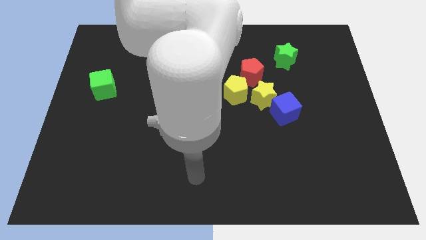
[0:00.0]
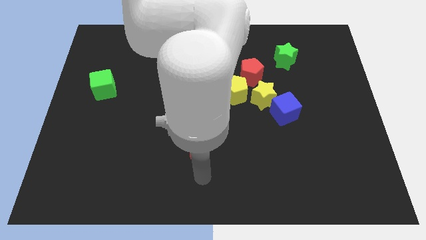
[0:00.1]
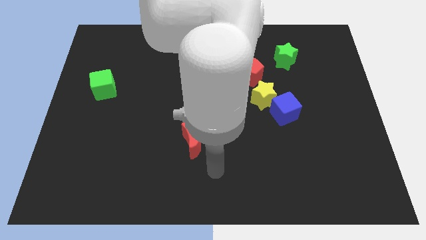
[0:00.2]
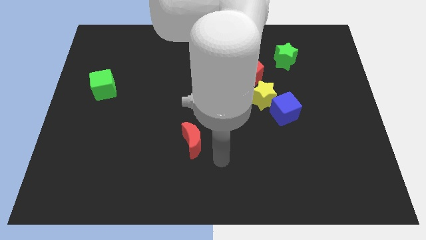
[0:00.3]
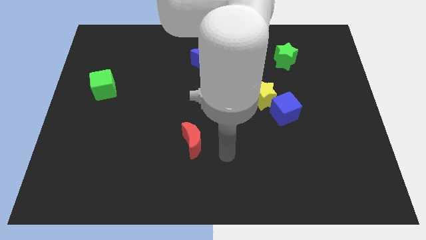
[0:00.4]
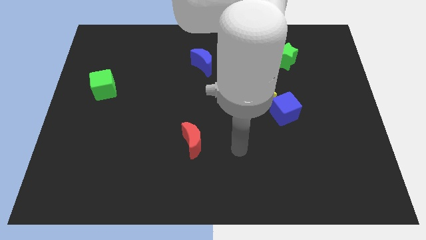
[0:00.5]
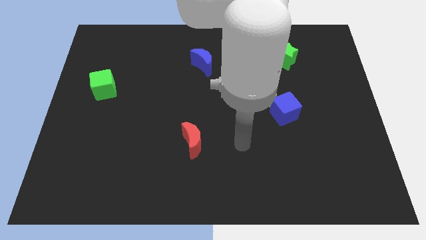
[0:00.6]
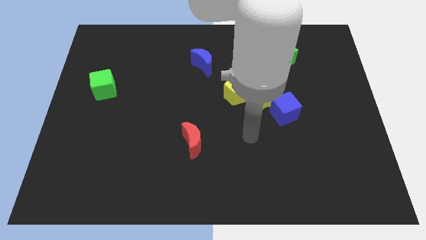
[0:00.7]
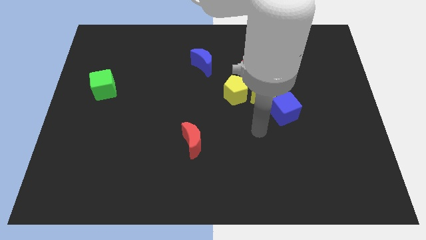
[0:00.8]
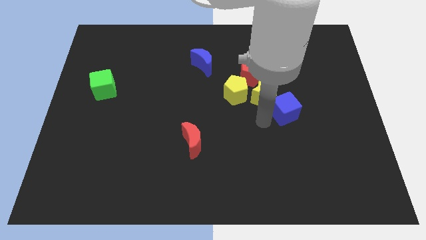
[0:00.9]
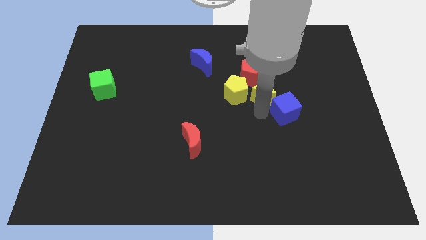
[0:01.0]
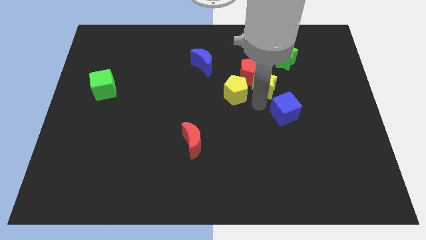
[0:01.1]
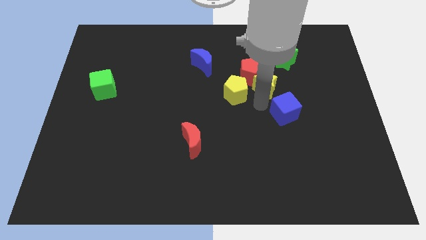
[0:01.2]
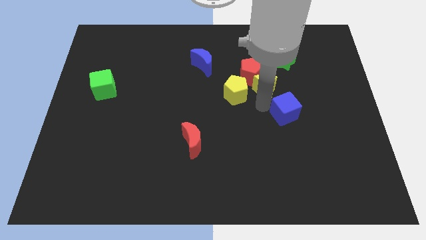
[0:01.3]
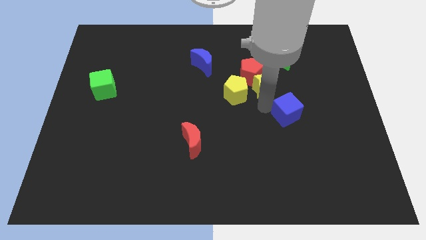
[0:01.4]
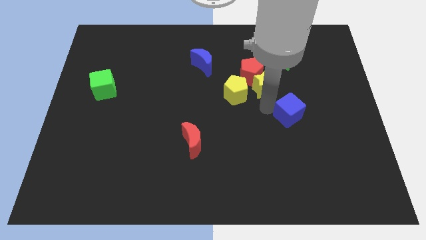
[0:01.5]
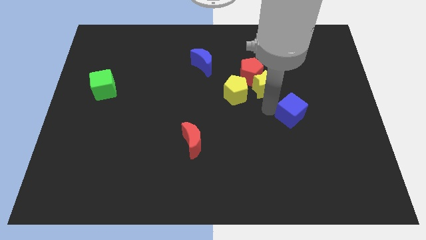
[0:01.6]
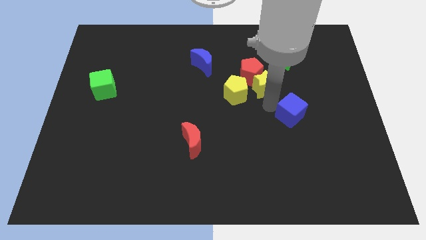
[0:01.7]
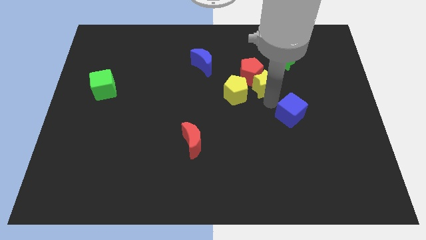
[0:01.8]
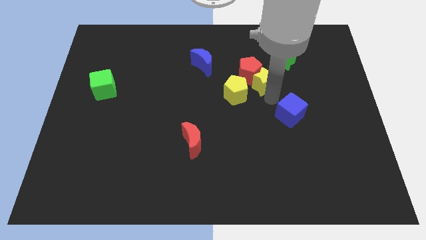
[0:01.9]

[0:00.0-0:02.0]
pull the blue cube apart from the yellow star

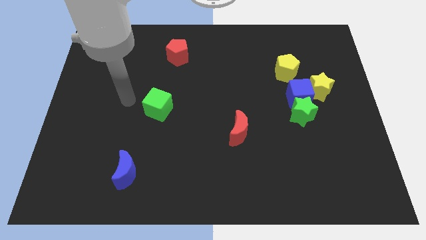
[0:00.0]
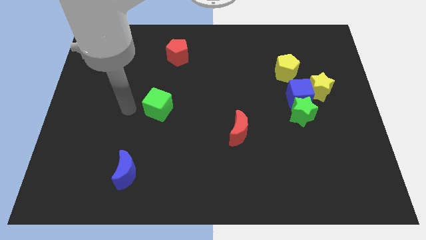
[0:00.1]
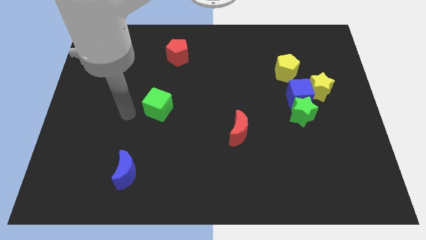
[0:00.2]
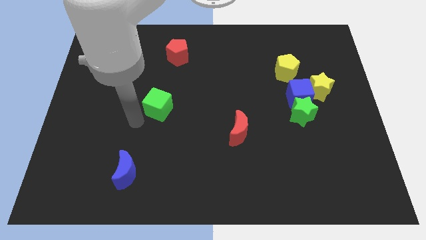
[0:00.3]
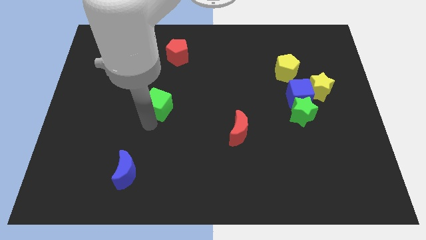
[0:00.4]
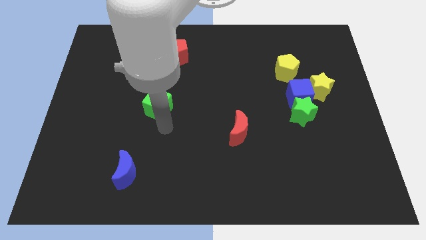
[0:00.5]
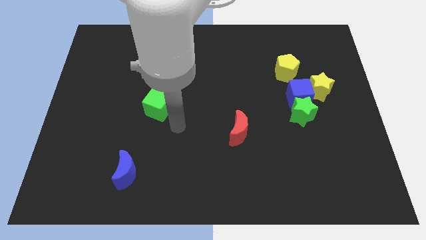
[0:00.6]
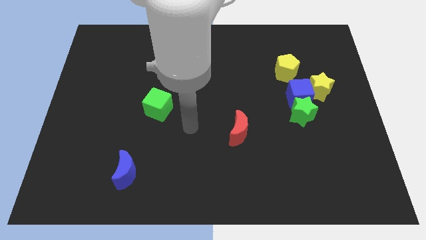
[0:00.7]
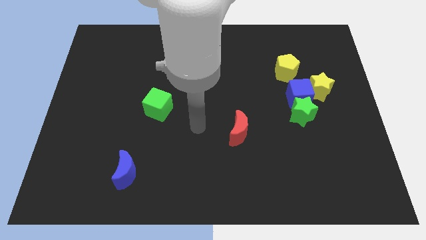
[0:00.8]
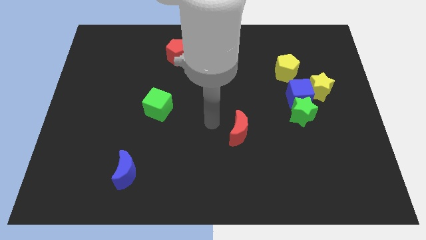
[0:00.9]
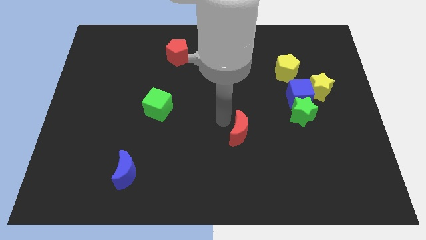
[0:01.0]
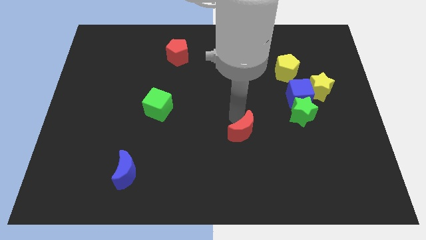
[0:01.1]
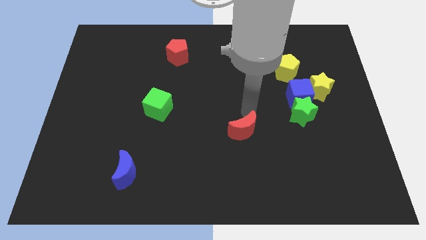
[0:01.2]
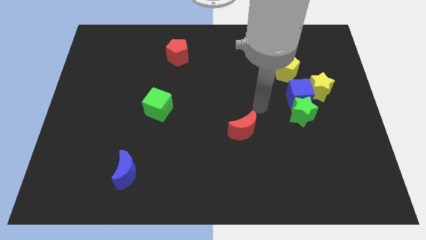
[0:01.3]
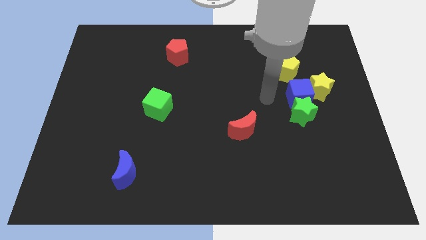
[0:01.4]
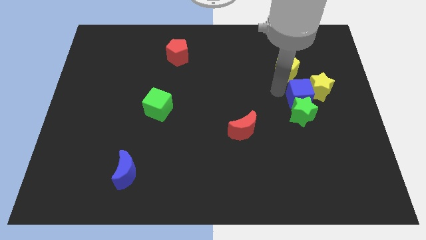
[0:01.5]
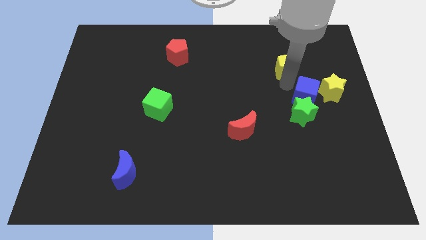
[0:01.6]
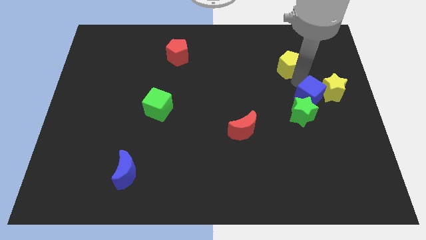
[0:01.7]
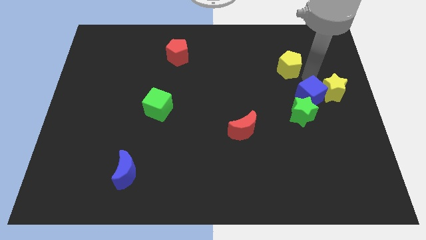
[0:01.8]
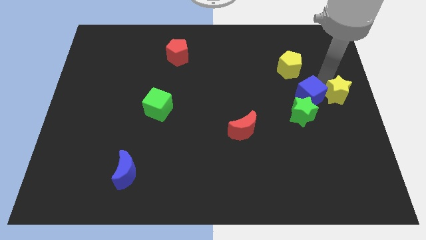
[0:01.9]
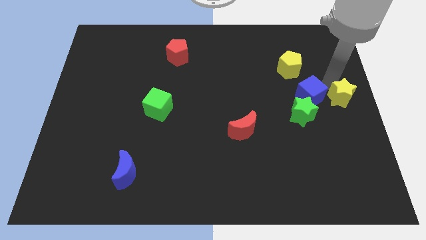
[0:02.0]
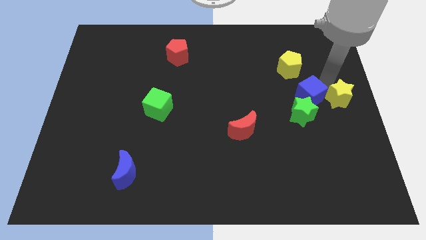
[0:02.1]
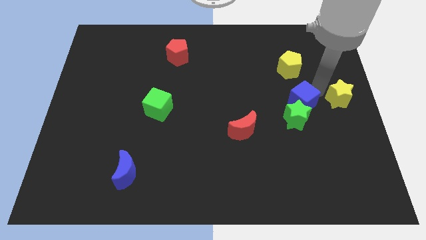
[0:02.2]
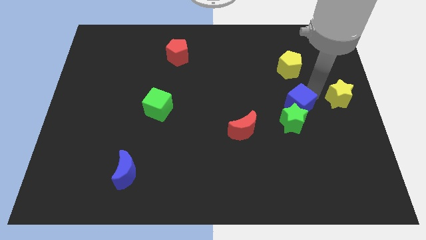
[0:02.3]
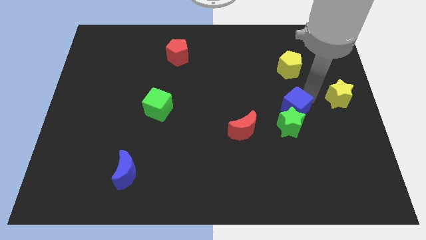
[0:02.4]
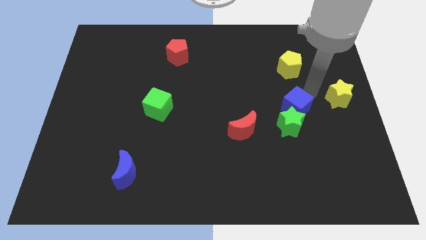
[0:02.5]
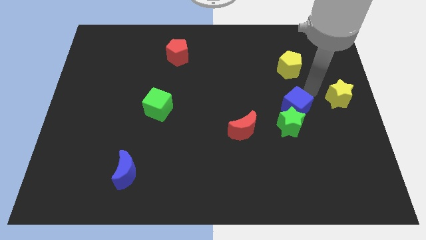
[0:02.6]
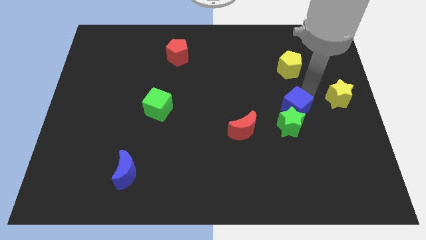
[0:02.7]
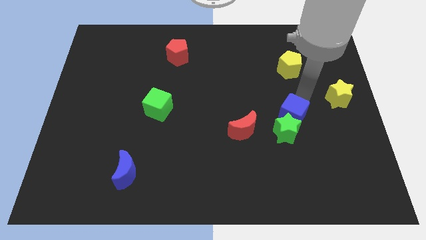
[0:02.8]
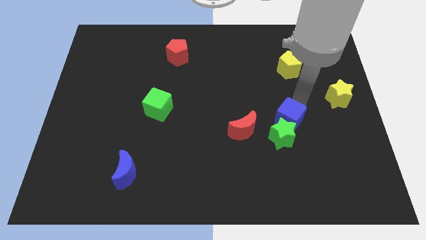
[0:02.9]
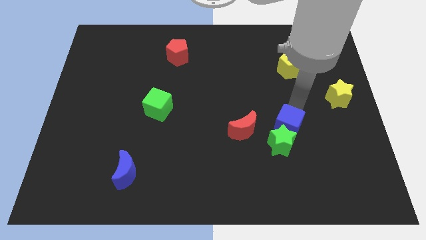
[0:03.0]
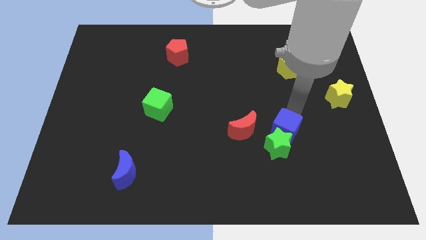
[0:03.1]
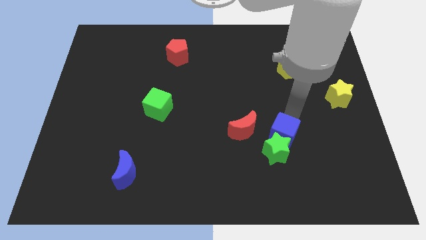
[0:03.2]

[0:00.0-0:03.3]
move the blue cube away from the green star, yellow star, and yellow pentagon

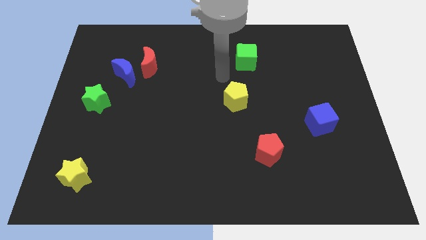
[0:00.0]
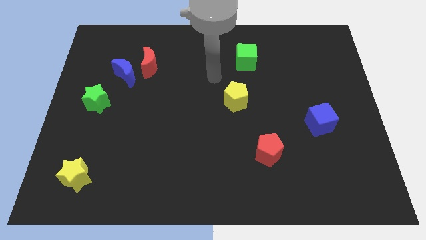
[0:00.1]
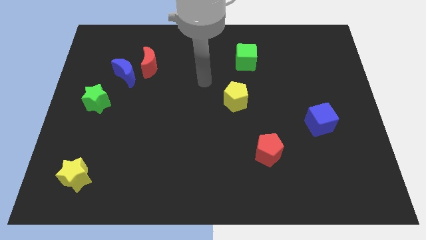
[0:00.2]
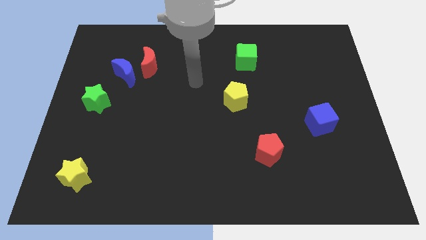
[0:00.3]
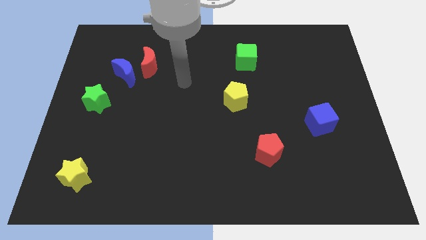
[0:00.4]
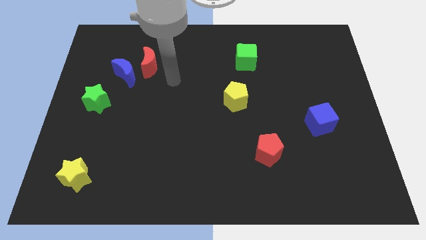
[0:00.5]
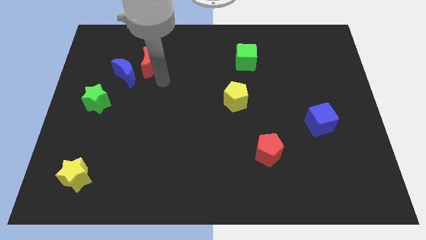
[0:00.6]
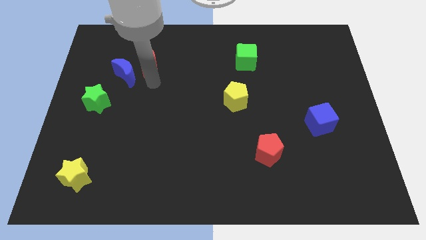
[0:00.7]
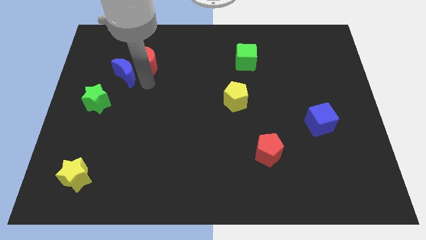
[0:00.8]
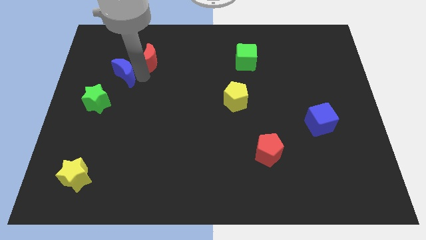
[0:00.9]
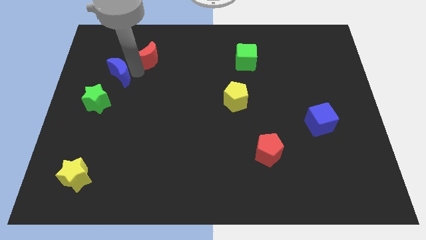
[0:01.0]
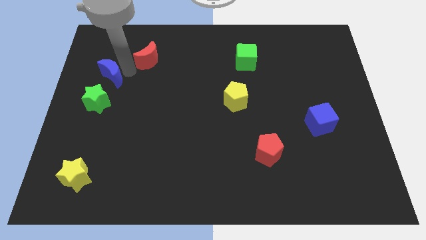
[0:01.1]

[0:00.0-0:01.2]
move the red moon away from the blue moon

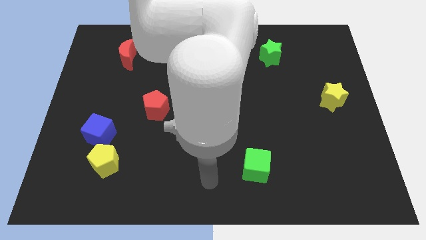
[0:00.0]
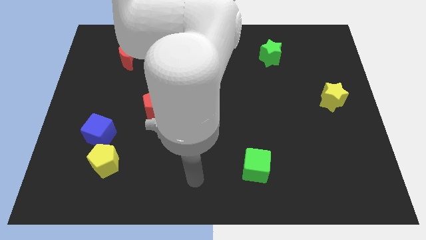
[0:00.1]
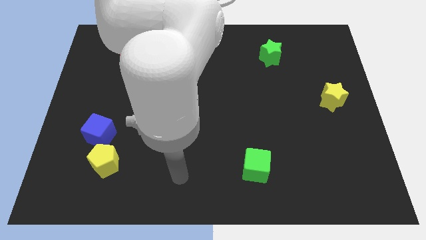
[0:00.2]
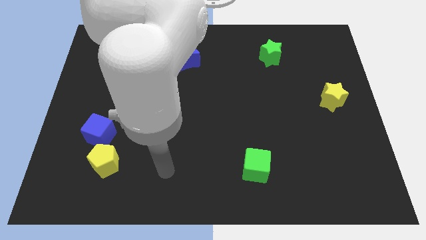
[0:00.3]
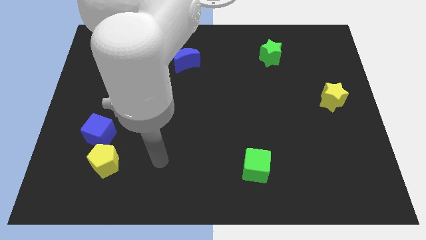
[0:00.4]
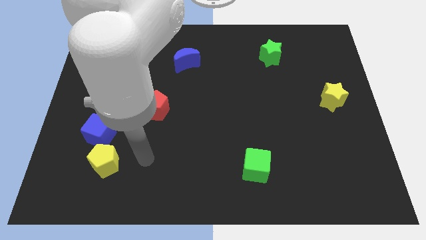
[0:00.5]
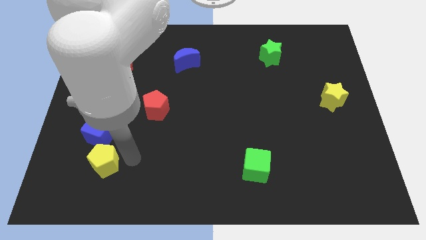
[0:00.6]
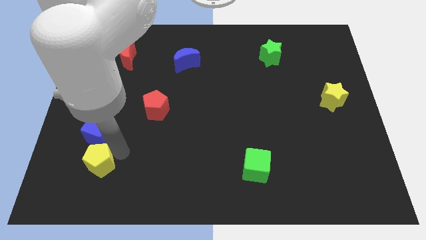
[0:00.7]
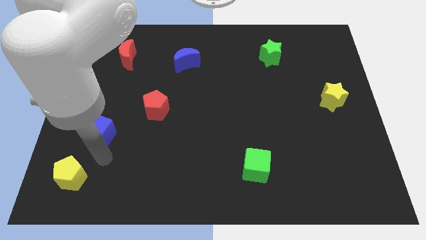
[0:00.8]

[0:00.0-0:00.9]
pull the blue cube apart from the yellow pentagon

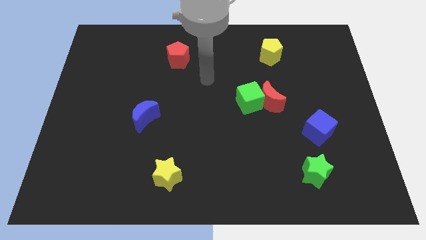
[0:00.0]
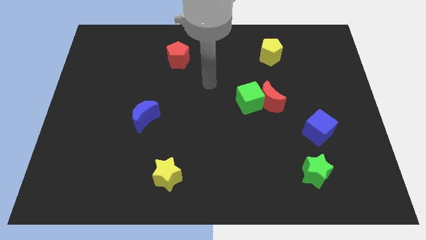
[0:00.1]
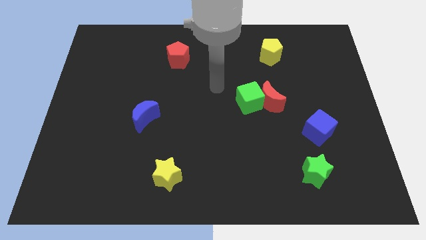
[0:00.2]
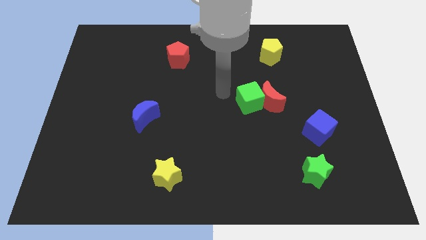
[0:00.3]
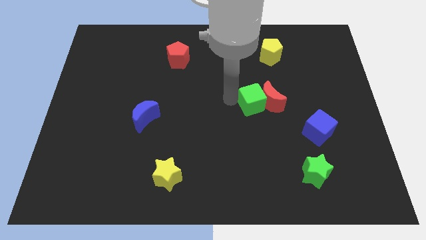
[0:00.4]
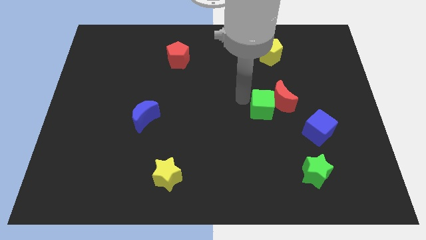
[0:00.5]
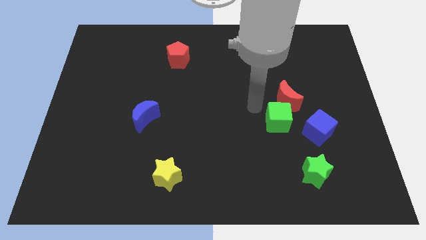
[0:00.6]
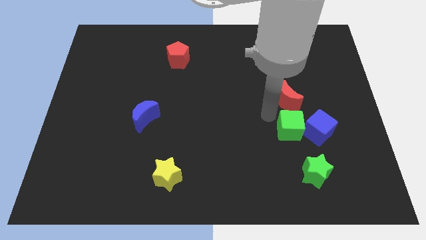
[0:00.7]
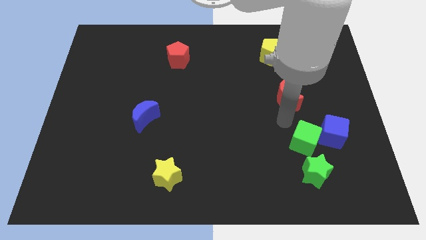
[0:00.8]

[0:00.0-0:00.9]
separate the red moon from the green cube

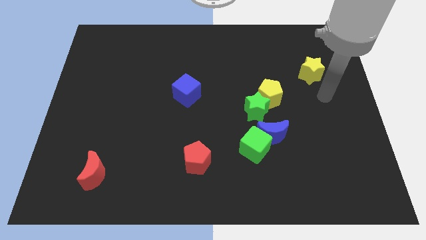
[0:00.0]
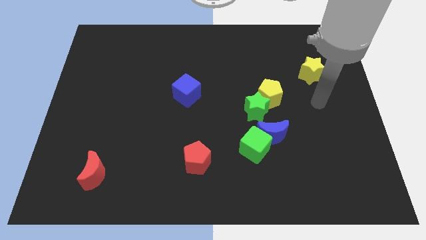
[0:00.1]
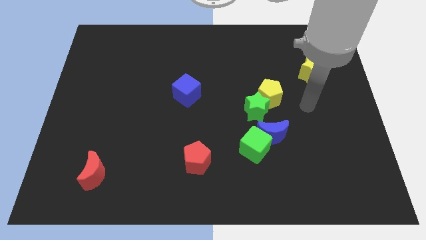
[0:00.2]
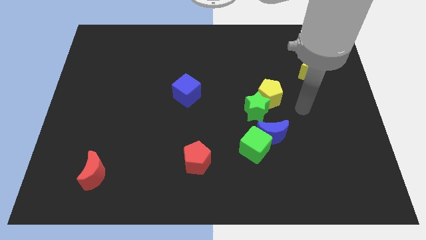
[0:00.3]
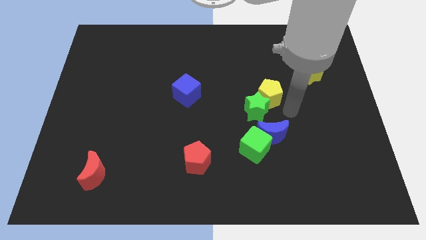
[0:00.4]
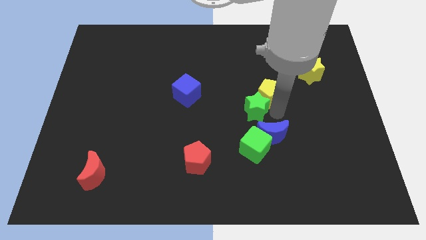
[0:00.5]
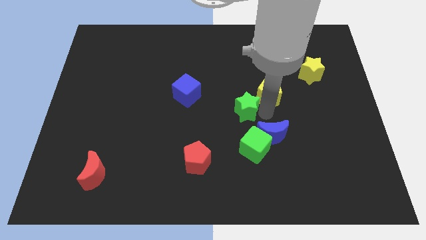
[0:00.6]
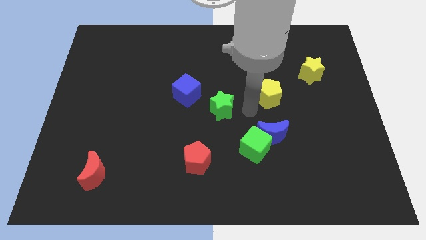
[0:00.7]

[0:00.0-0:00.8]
move the yellow pentagon away from the green star

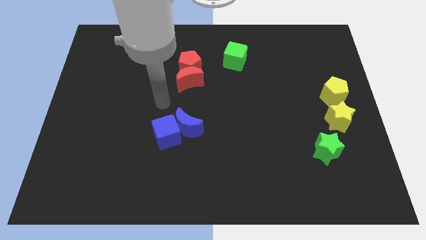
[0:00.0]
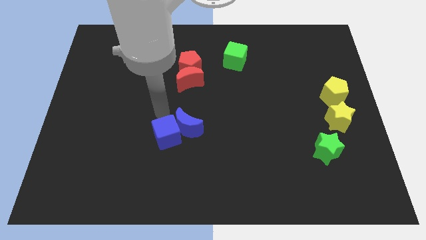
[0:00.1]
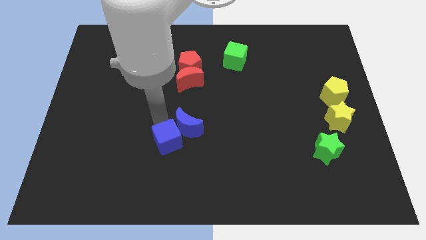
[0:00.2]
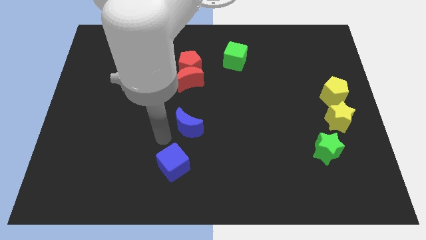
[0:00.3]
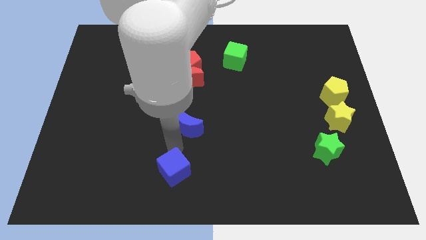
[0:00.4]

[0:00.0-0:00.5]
move the blue moon away from the blue cube
